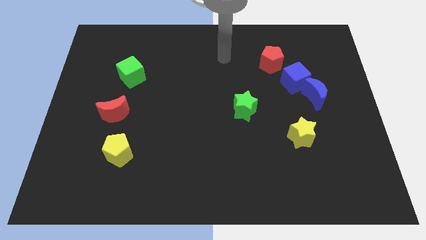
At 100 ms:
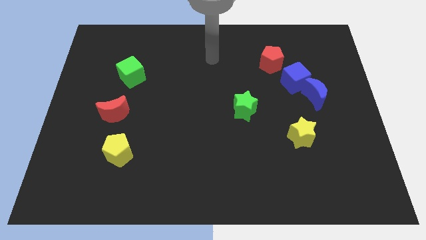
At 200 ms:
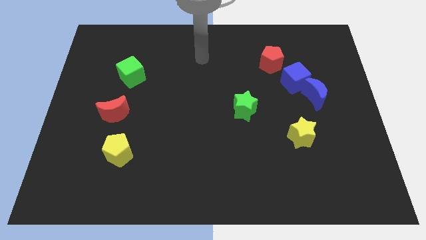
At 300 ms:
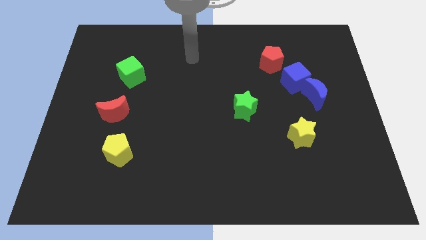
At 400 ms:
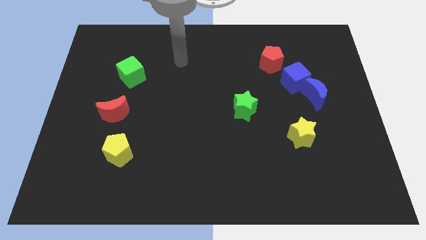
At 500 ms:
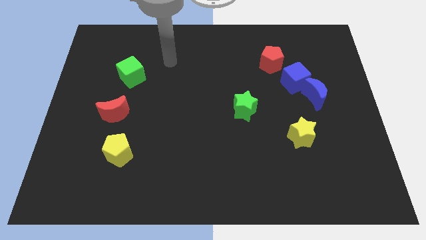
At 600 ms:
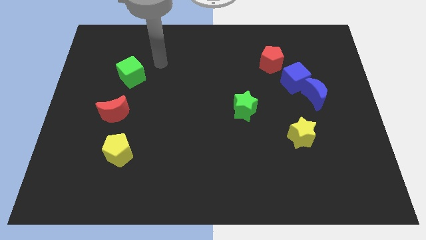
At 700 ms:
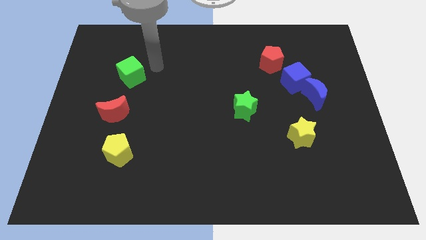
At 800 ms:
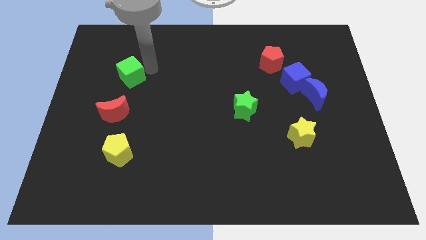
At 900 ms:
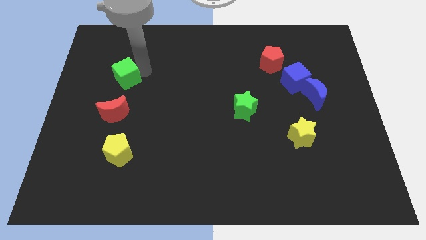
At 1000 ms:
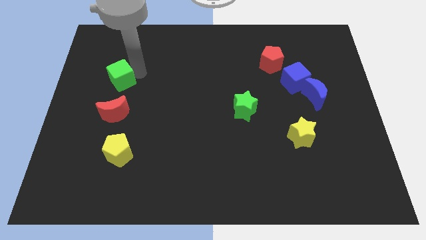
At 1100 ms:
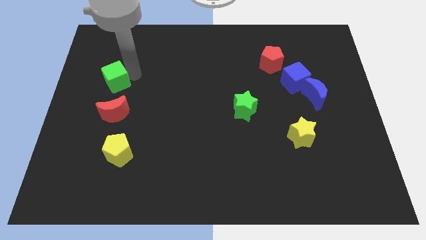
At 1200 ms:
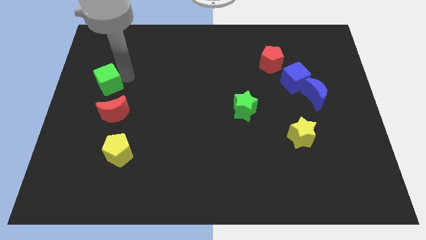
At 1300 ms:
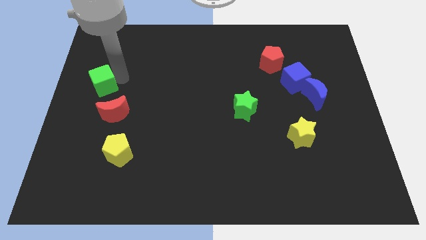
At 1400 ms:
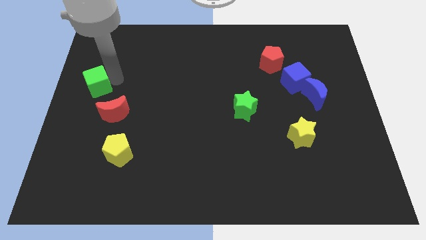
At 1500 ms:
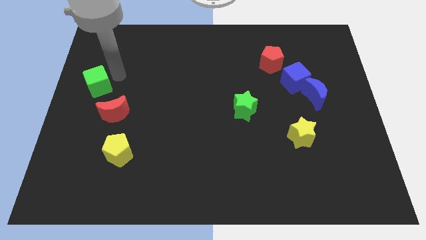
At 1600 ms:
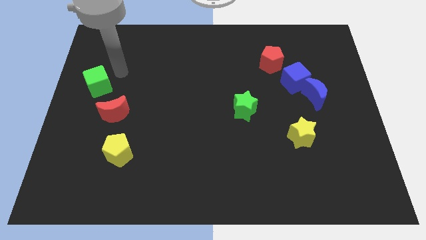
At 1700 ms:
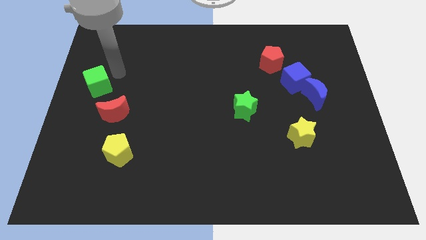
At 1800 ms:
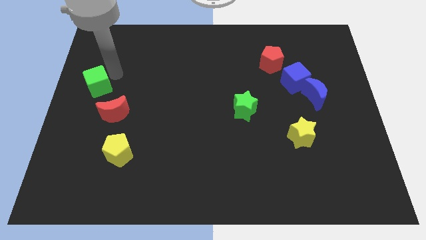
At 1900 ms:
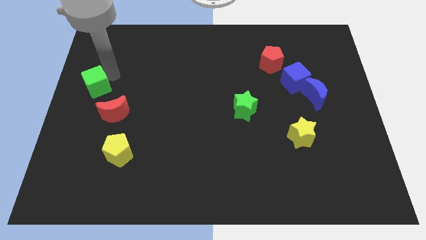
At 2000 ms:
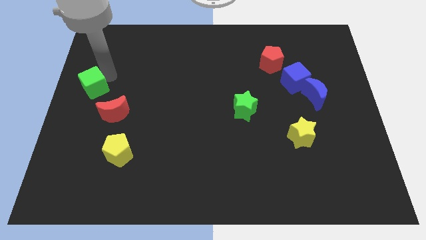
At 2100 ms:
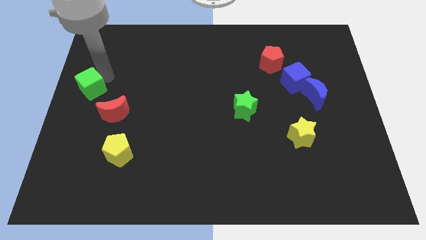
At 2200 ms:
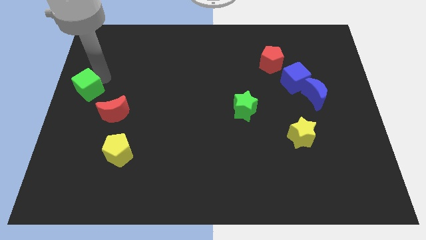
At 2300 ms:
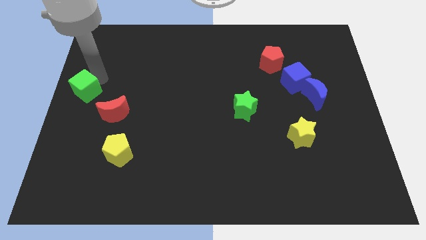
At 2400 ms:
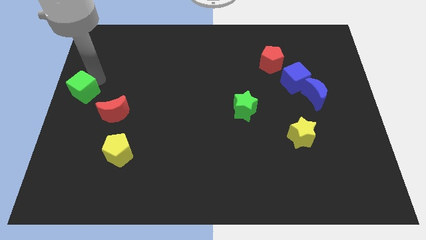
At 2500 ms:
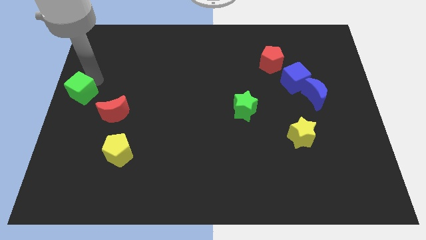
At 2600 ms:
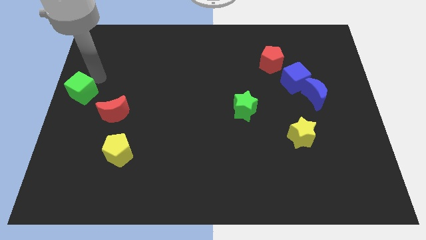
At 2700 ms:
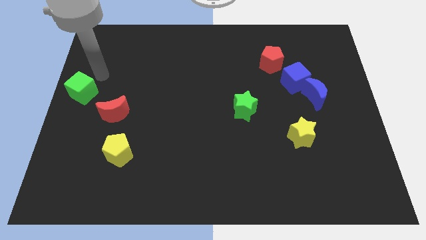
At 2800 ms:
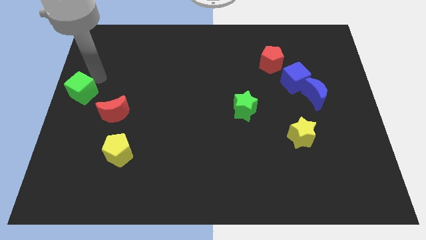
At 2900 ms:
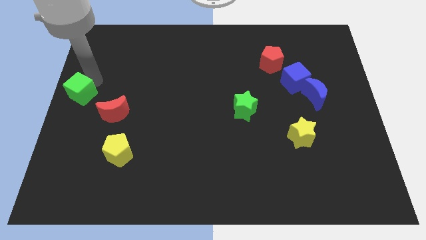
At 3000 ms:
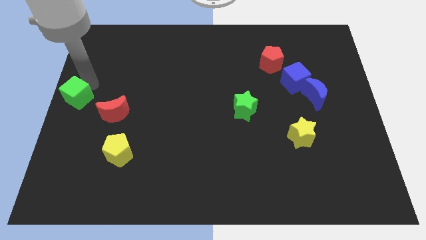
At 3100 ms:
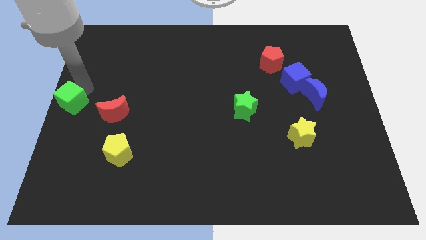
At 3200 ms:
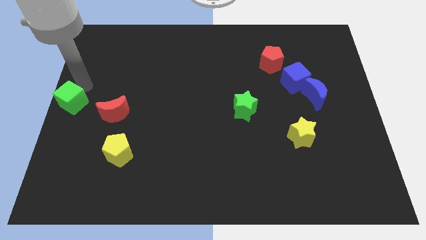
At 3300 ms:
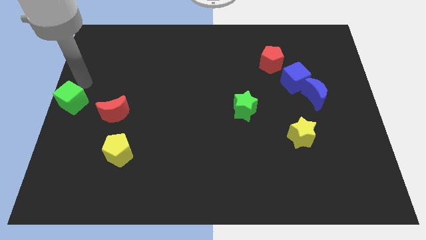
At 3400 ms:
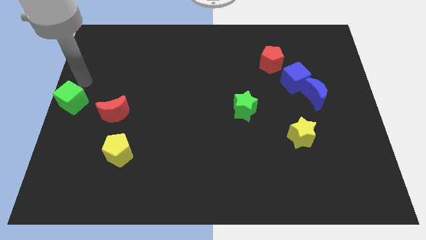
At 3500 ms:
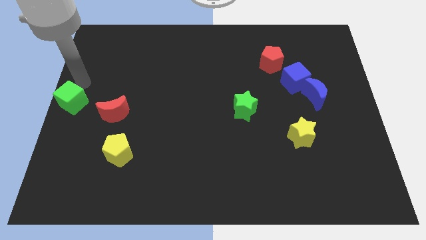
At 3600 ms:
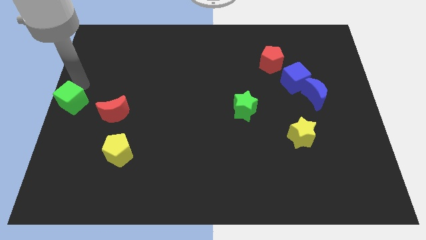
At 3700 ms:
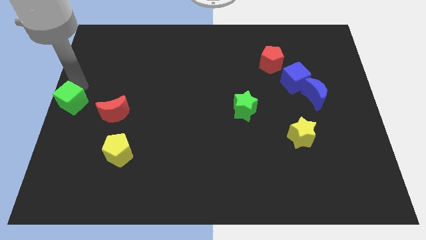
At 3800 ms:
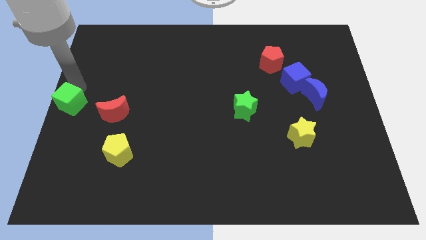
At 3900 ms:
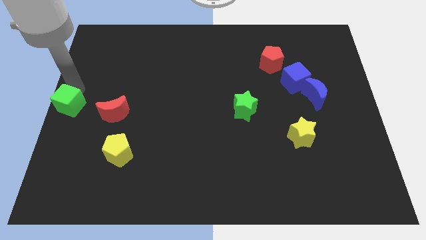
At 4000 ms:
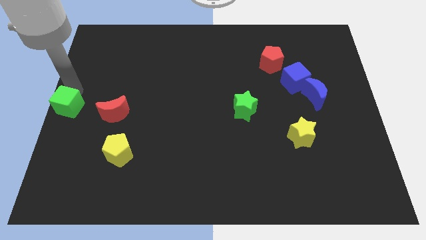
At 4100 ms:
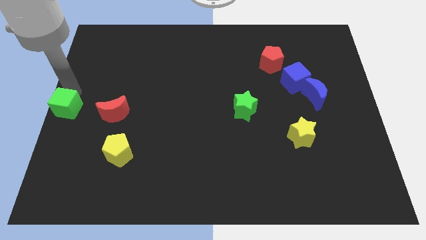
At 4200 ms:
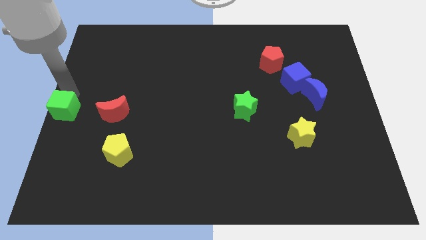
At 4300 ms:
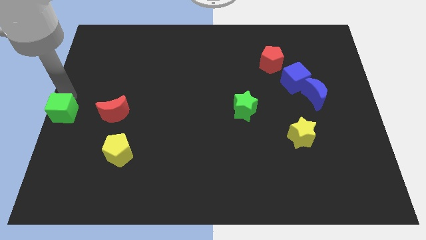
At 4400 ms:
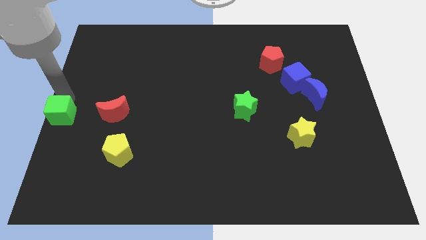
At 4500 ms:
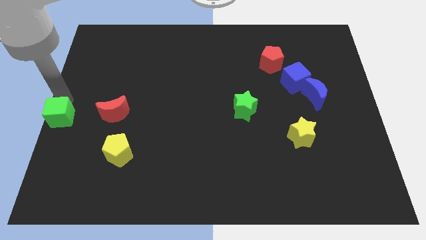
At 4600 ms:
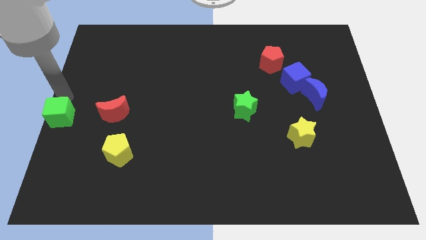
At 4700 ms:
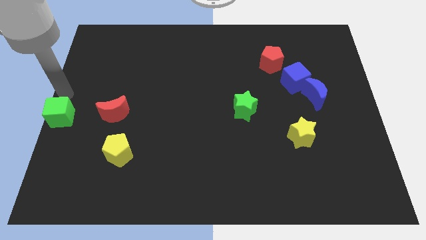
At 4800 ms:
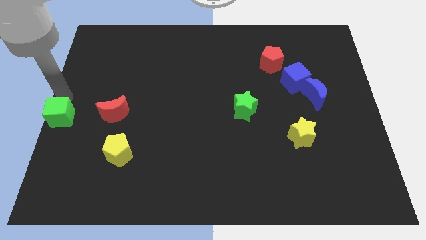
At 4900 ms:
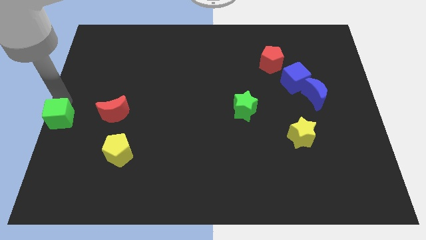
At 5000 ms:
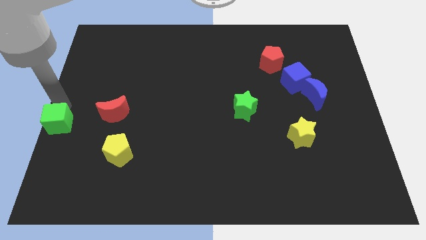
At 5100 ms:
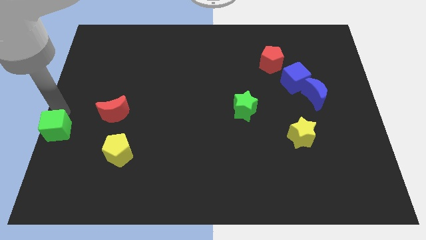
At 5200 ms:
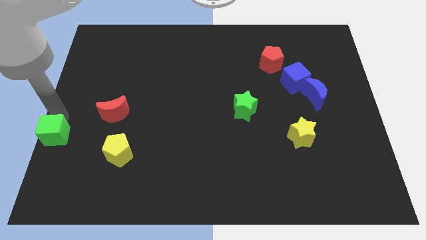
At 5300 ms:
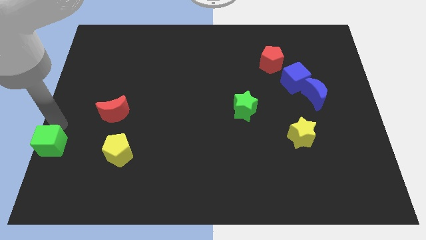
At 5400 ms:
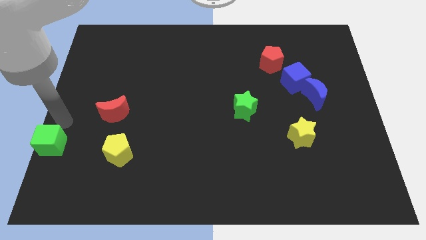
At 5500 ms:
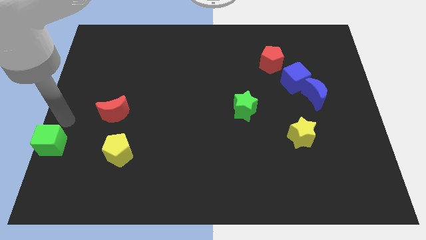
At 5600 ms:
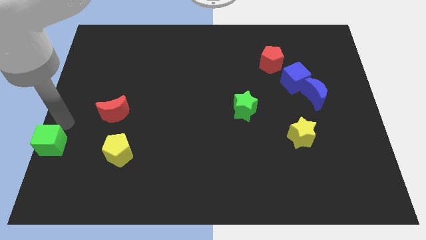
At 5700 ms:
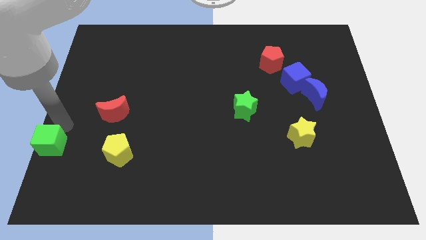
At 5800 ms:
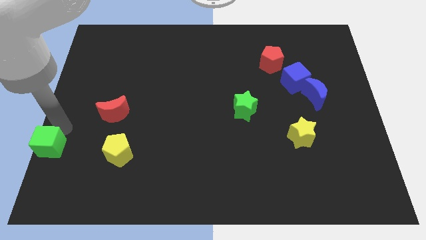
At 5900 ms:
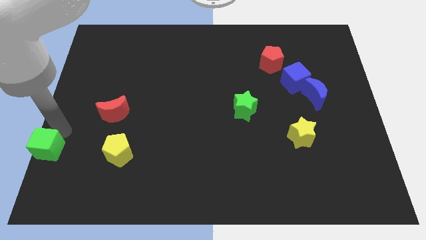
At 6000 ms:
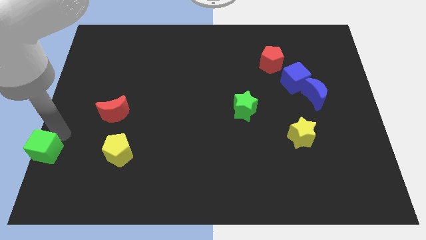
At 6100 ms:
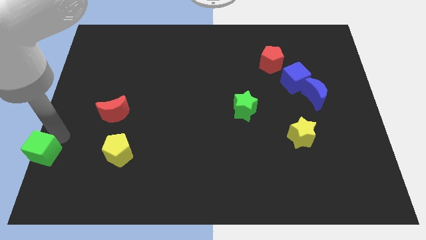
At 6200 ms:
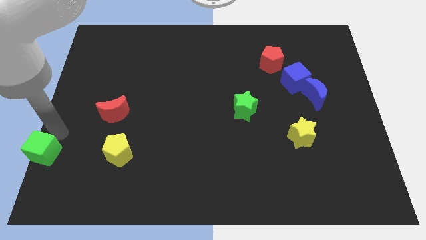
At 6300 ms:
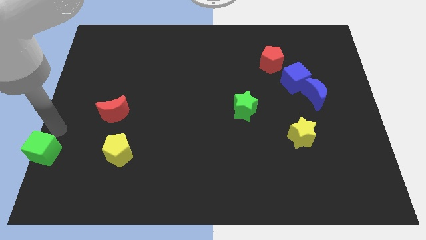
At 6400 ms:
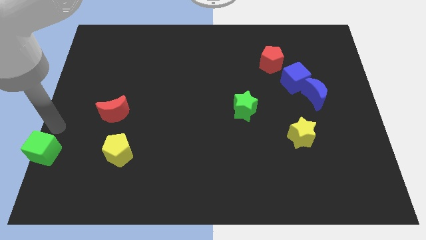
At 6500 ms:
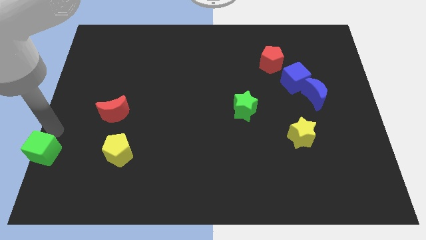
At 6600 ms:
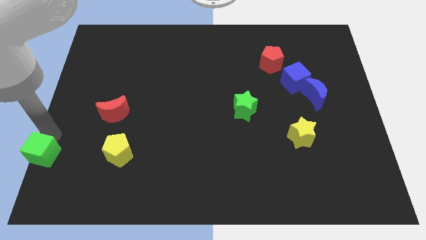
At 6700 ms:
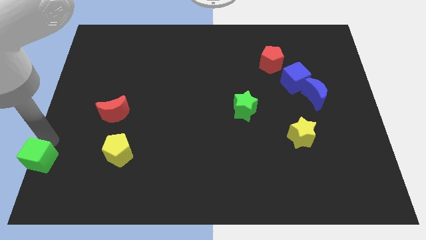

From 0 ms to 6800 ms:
put the green cube to the bottom left of the board
